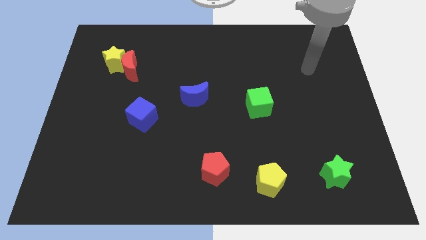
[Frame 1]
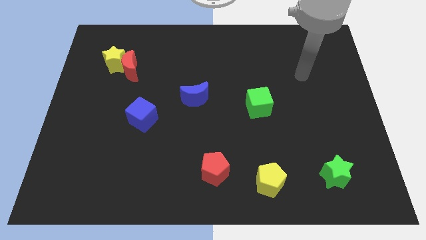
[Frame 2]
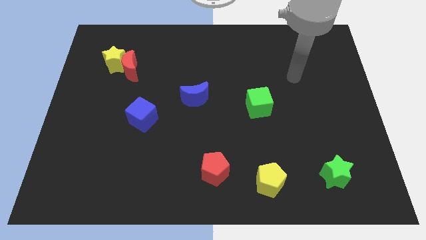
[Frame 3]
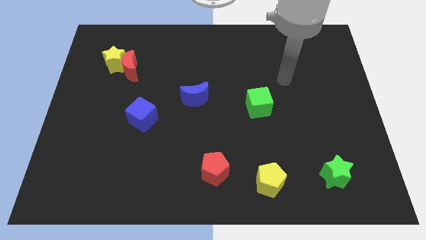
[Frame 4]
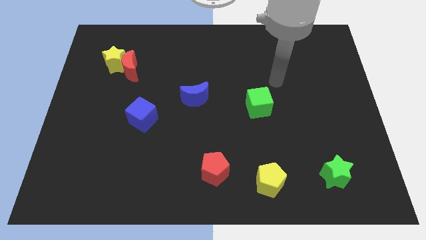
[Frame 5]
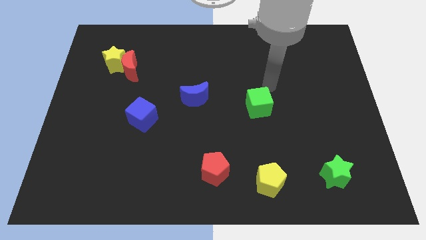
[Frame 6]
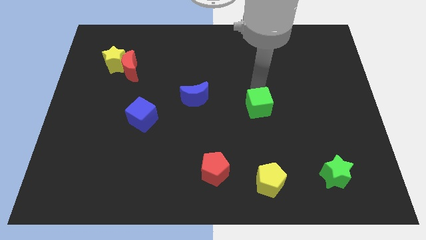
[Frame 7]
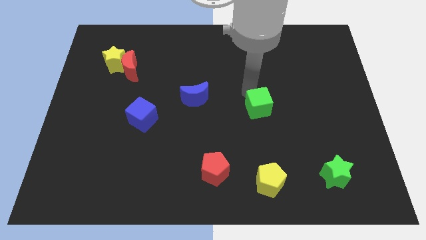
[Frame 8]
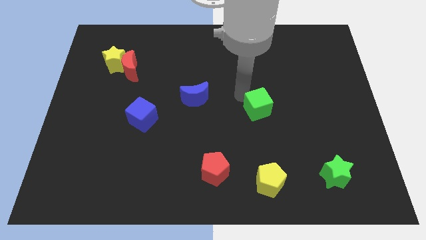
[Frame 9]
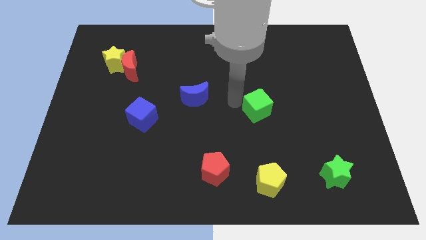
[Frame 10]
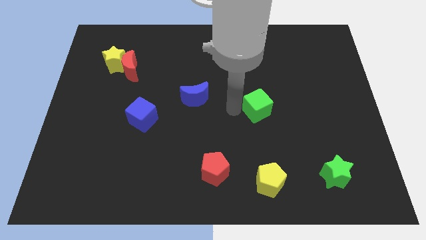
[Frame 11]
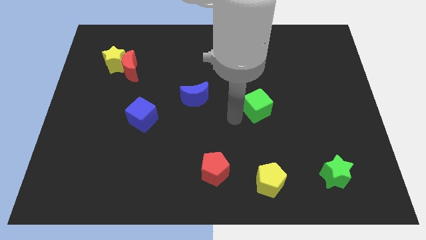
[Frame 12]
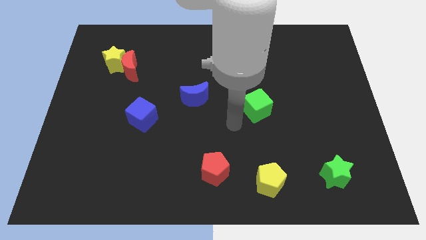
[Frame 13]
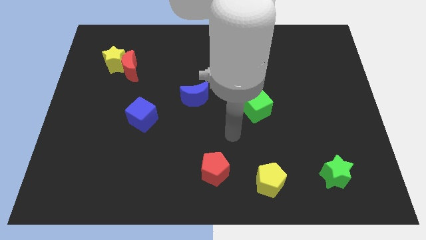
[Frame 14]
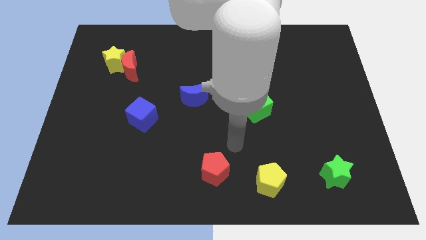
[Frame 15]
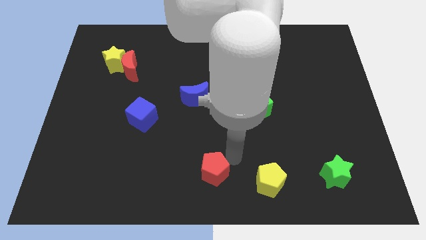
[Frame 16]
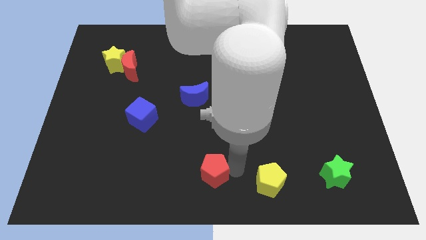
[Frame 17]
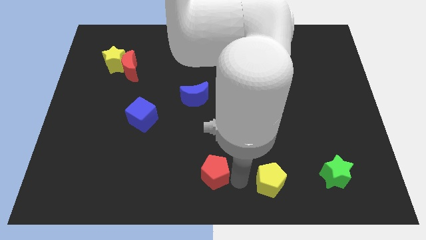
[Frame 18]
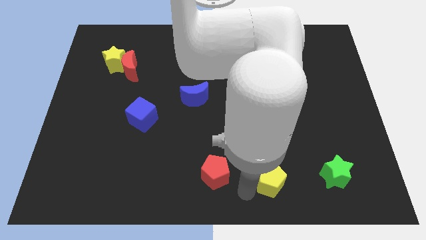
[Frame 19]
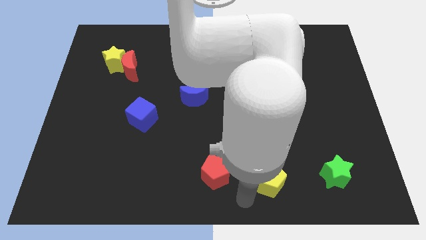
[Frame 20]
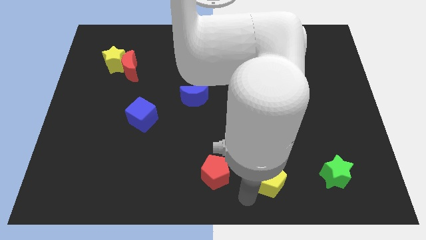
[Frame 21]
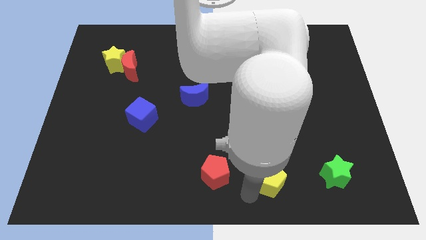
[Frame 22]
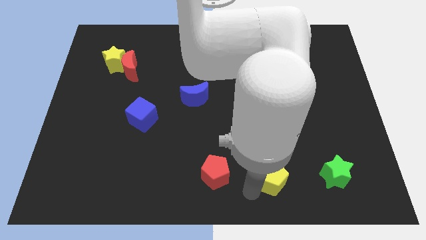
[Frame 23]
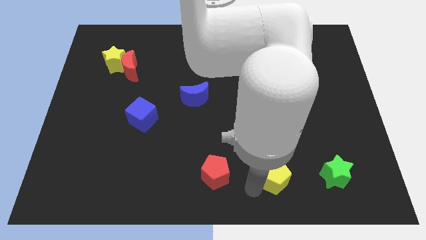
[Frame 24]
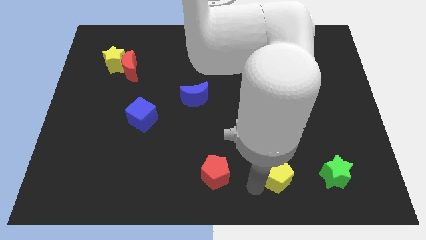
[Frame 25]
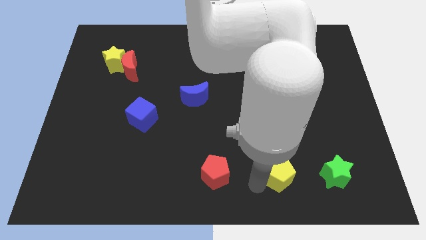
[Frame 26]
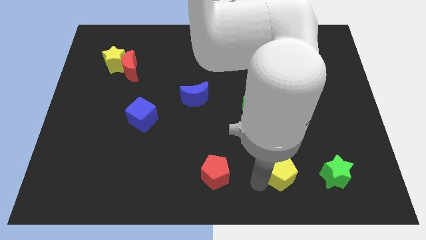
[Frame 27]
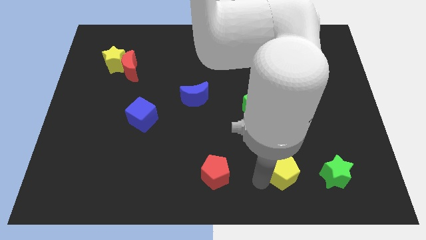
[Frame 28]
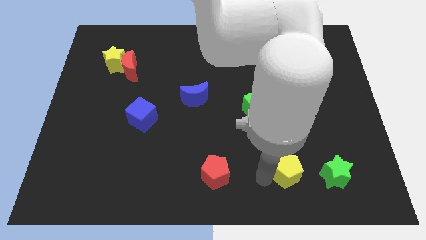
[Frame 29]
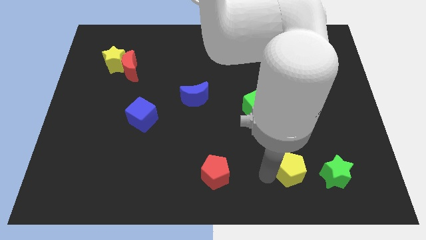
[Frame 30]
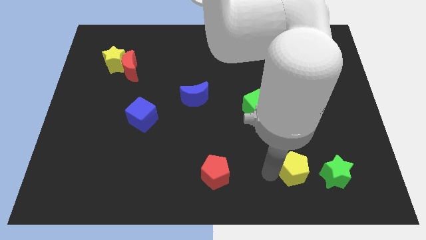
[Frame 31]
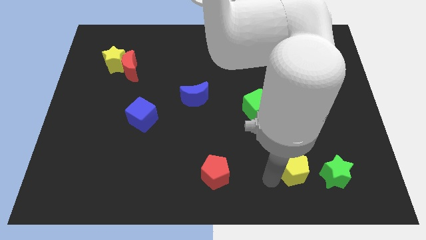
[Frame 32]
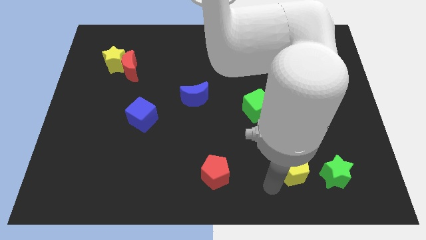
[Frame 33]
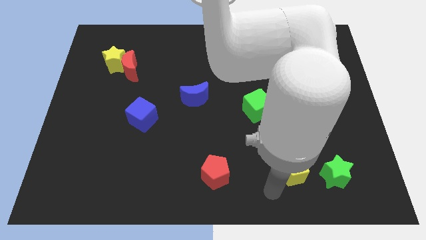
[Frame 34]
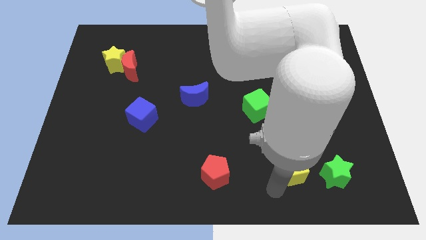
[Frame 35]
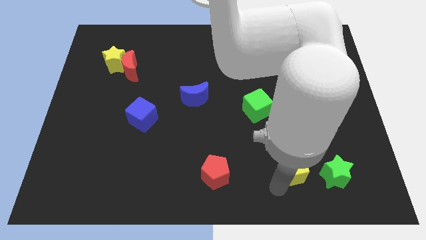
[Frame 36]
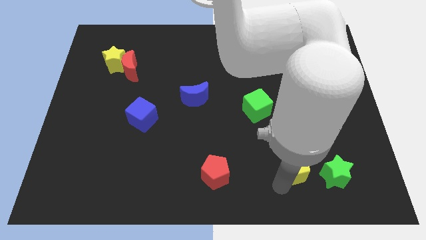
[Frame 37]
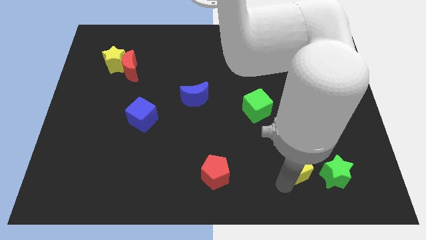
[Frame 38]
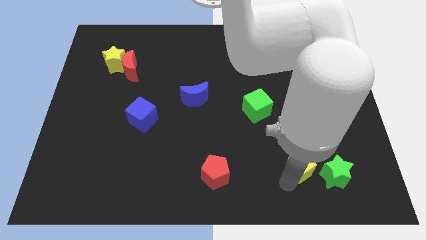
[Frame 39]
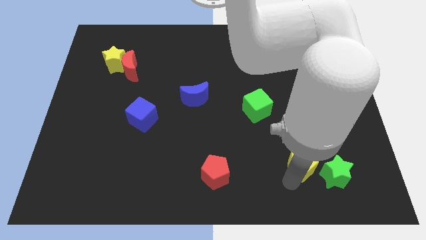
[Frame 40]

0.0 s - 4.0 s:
slightly push the yellow pentagon diagonally up and right

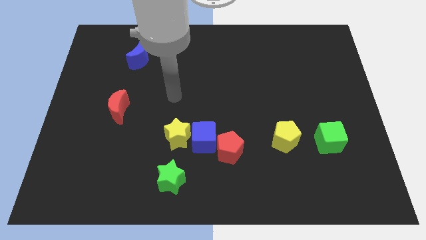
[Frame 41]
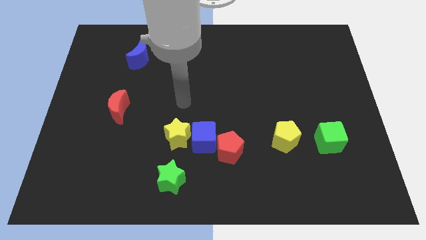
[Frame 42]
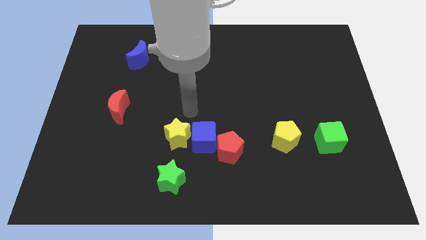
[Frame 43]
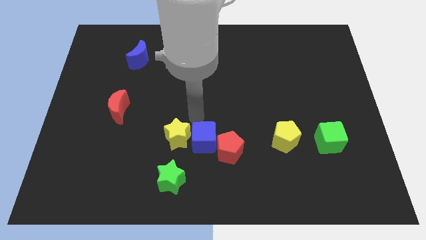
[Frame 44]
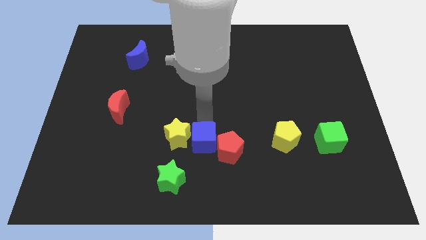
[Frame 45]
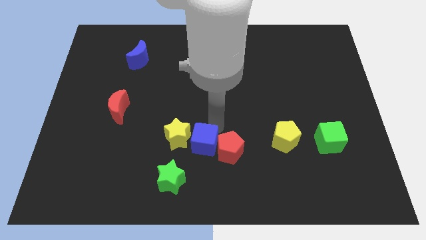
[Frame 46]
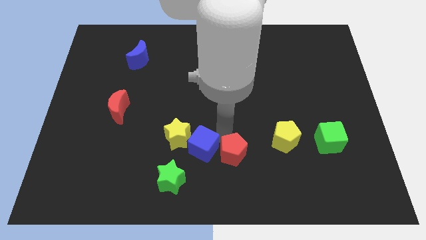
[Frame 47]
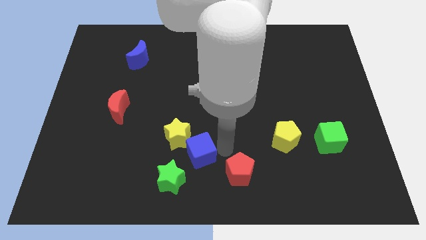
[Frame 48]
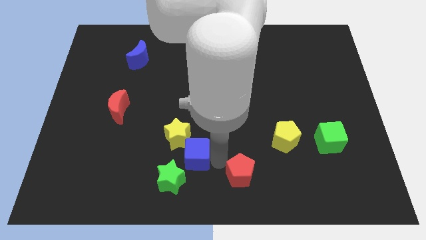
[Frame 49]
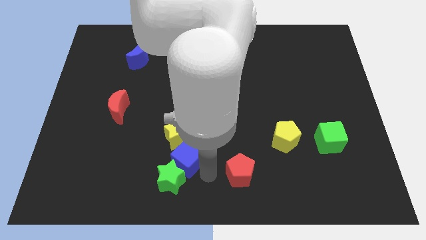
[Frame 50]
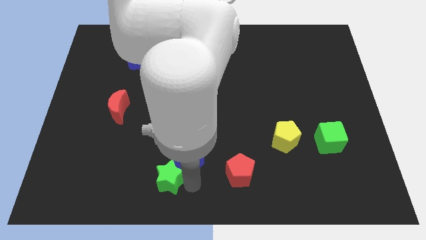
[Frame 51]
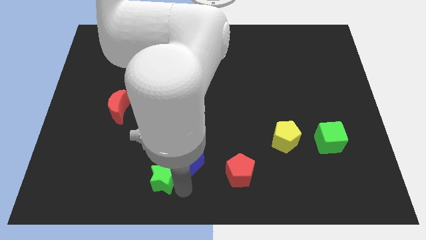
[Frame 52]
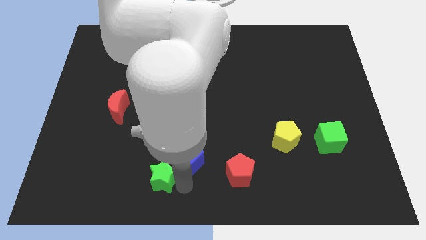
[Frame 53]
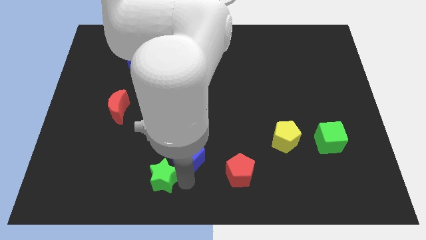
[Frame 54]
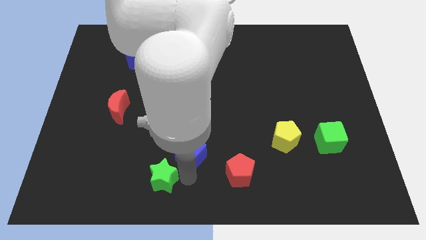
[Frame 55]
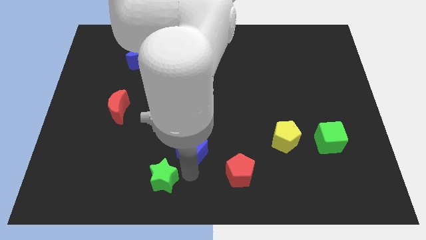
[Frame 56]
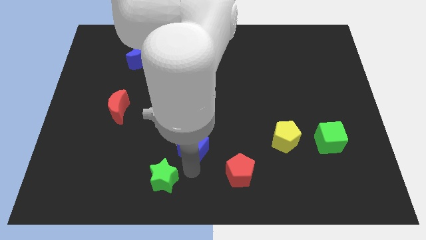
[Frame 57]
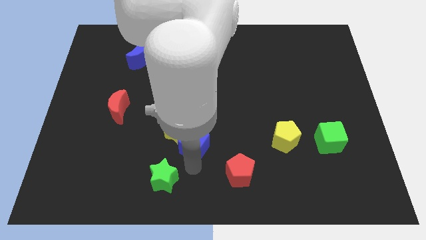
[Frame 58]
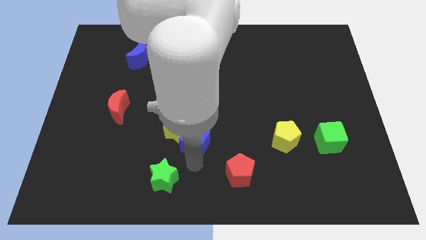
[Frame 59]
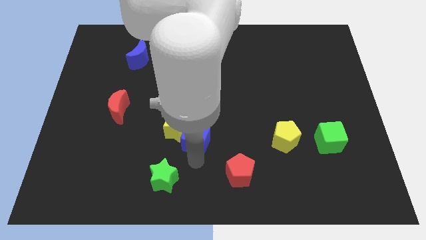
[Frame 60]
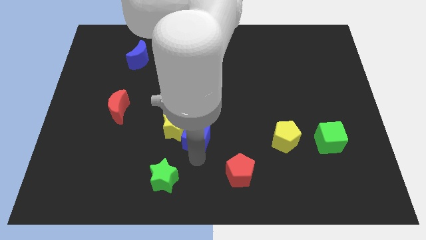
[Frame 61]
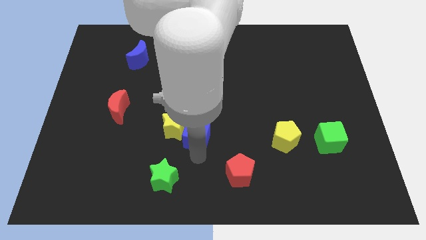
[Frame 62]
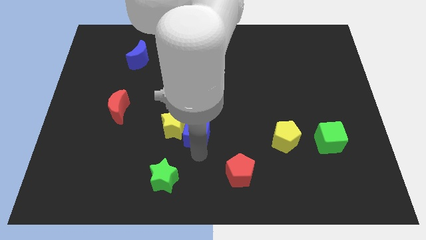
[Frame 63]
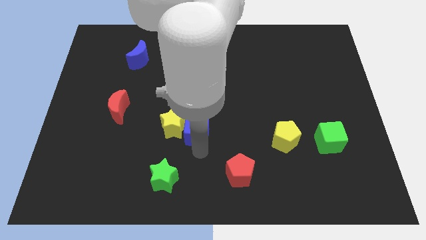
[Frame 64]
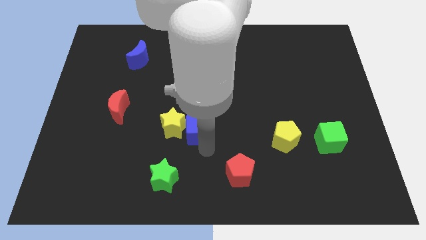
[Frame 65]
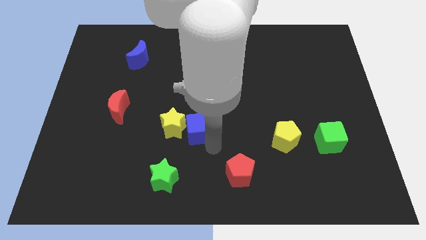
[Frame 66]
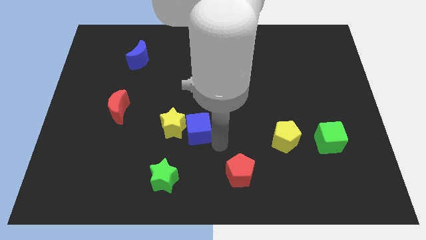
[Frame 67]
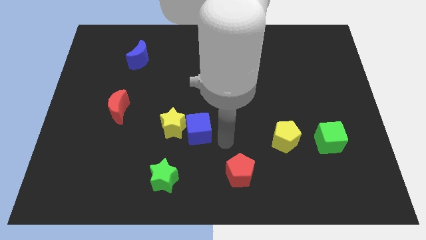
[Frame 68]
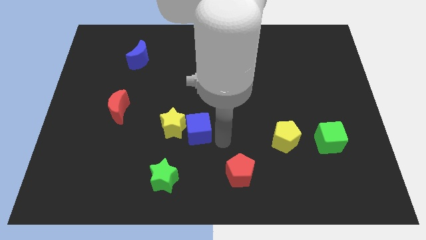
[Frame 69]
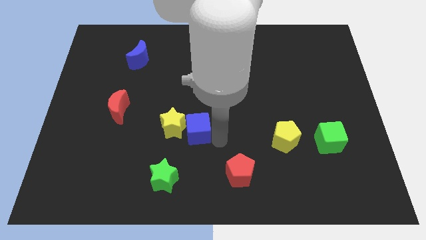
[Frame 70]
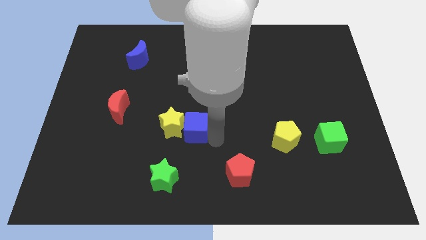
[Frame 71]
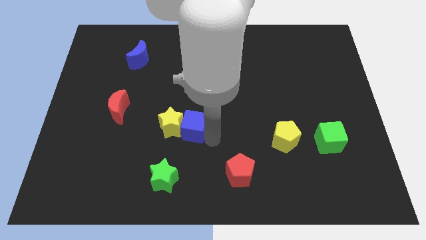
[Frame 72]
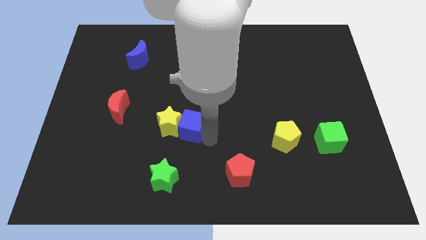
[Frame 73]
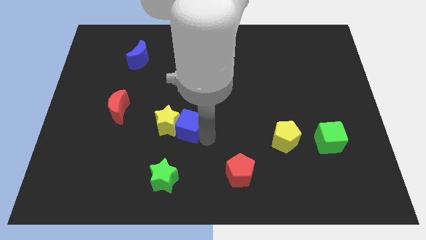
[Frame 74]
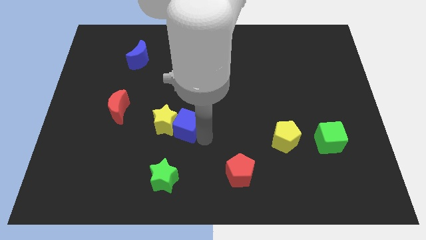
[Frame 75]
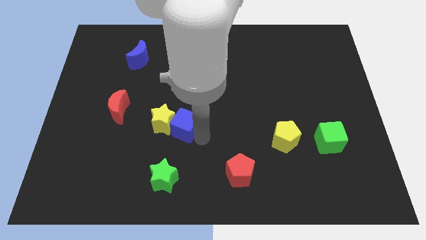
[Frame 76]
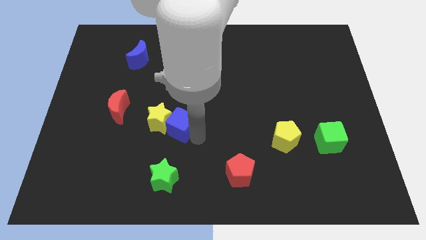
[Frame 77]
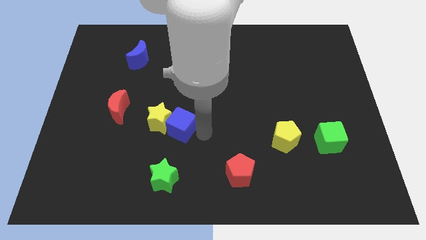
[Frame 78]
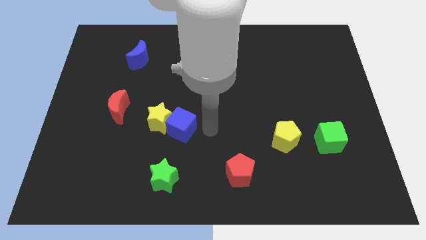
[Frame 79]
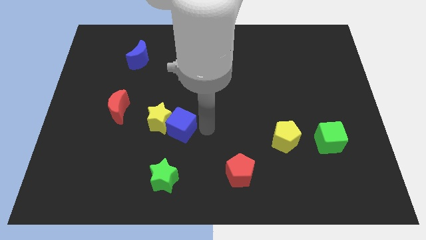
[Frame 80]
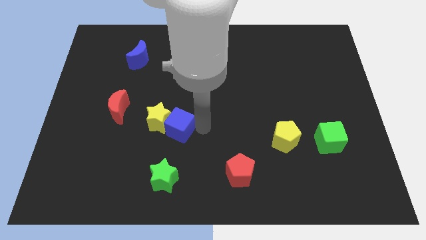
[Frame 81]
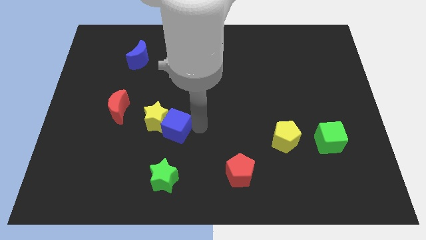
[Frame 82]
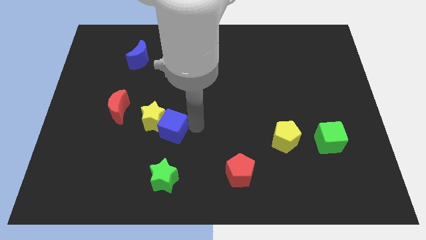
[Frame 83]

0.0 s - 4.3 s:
push the blue cube a little left
